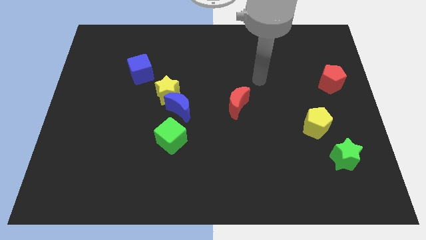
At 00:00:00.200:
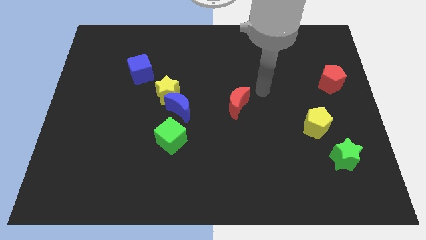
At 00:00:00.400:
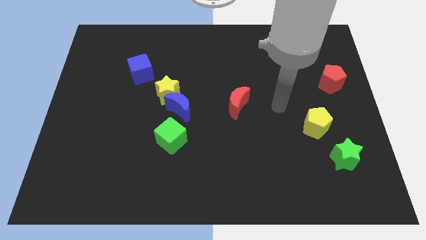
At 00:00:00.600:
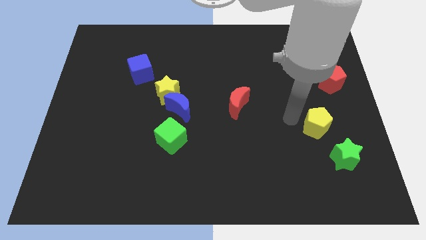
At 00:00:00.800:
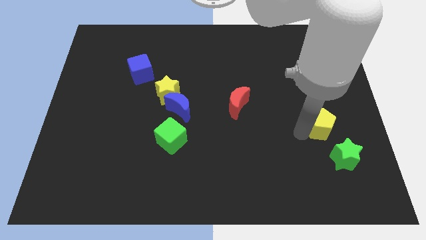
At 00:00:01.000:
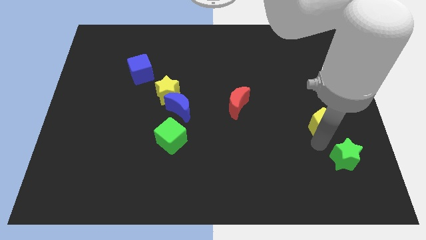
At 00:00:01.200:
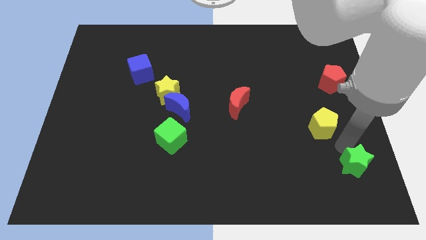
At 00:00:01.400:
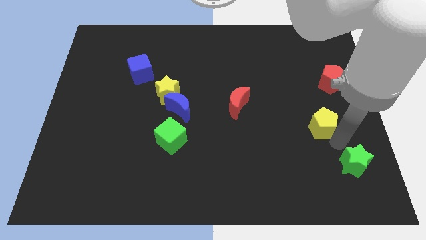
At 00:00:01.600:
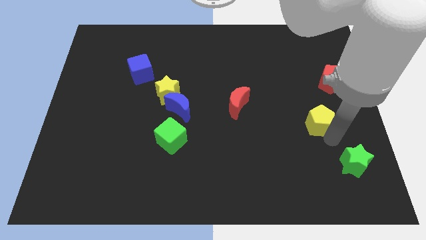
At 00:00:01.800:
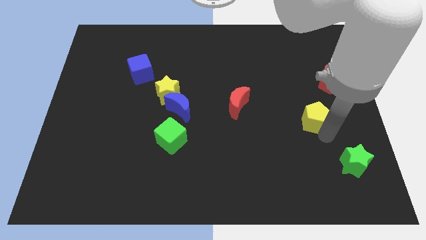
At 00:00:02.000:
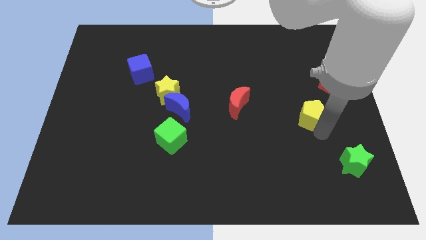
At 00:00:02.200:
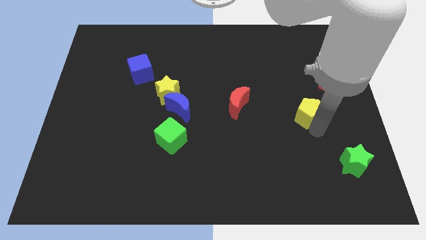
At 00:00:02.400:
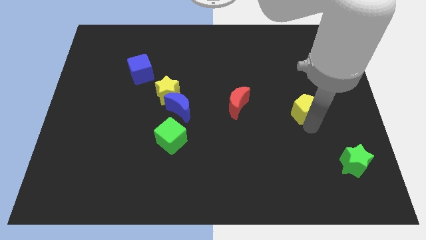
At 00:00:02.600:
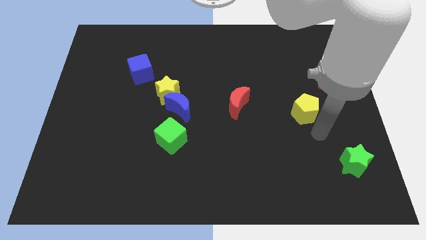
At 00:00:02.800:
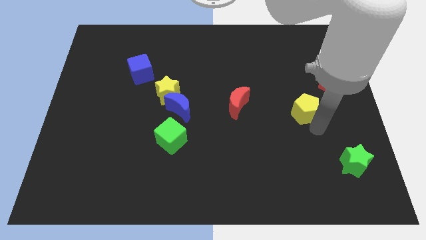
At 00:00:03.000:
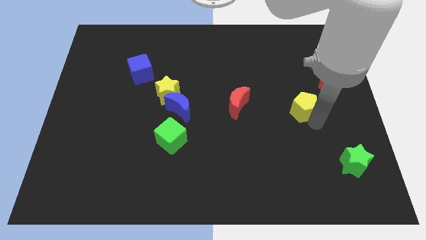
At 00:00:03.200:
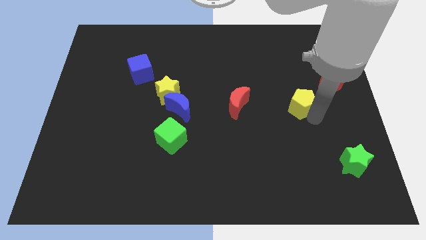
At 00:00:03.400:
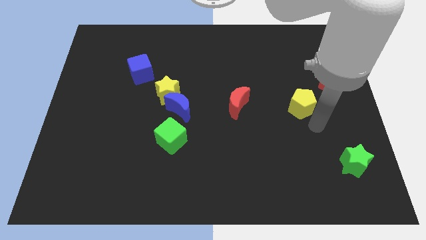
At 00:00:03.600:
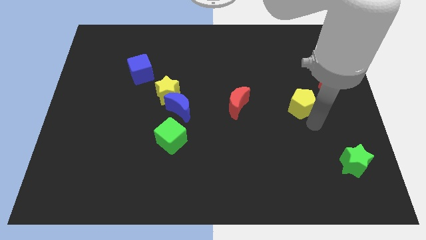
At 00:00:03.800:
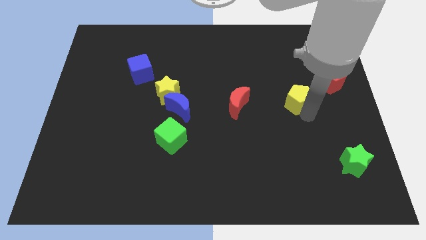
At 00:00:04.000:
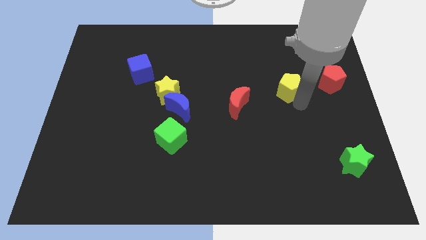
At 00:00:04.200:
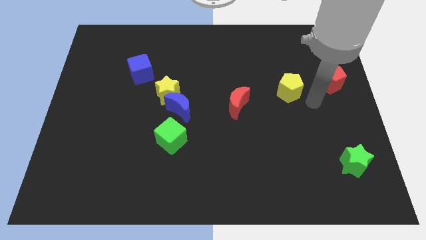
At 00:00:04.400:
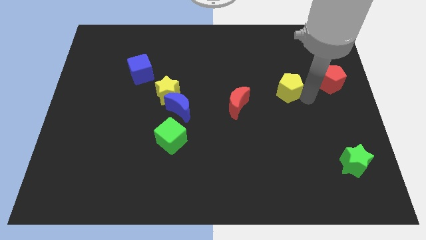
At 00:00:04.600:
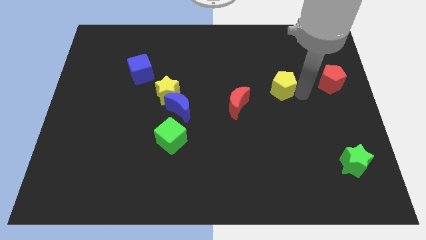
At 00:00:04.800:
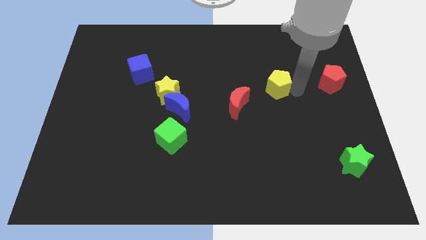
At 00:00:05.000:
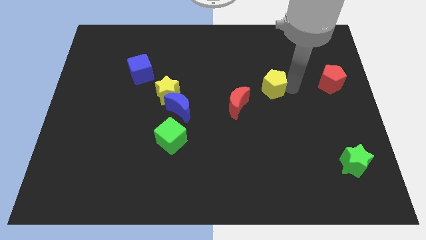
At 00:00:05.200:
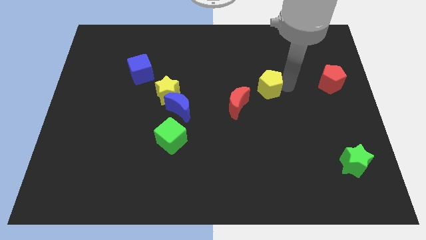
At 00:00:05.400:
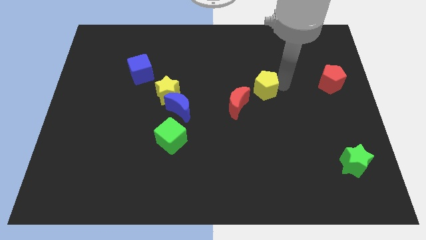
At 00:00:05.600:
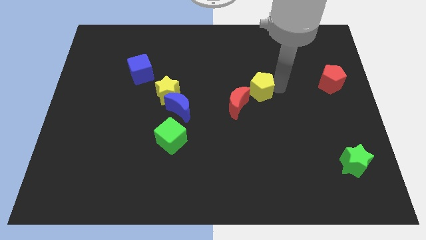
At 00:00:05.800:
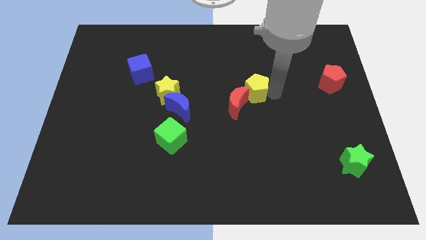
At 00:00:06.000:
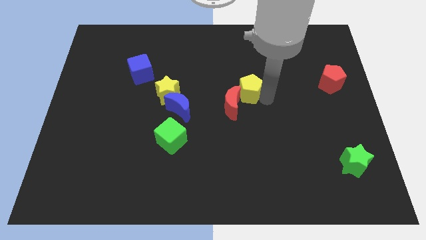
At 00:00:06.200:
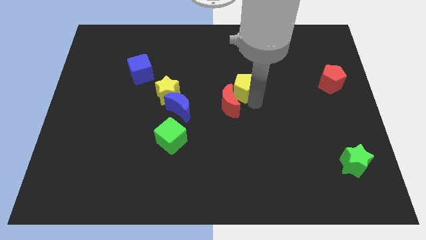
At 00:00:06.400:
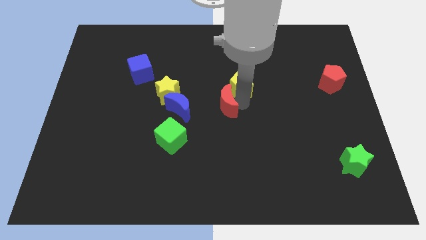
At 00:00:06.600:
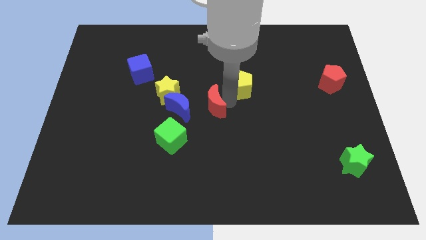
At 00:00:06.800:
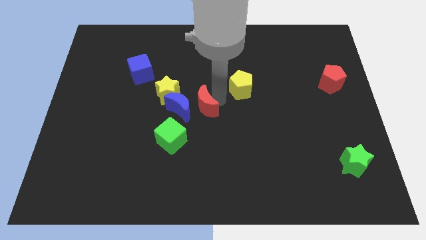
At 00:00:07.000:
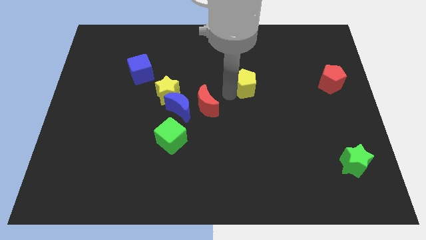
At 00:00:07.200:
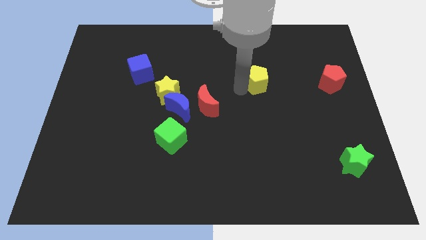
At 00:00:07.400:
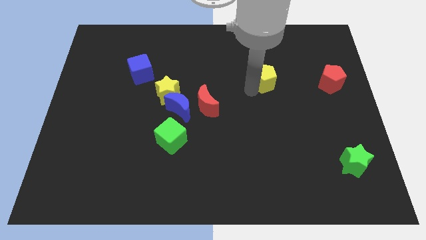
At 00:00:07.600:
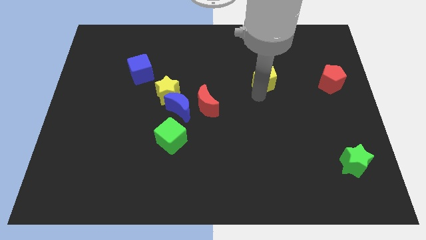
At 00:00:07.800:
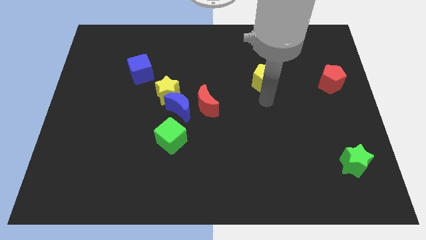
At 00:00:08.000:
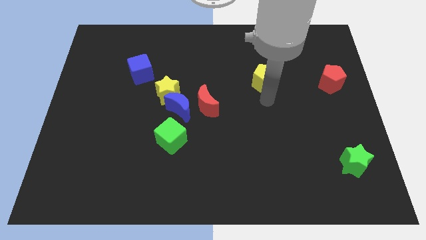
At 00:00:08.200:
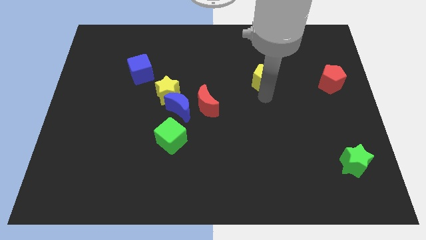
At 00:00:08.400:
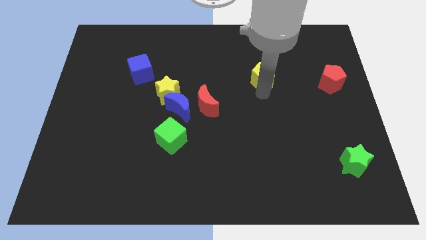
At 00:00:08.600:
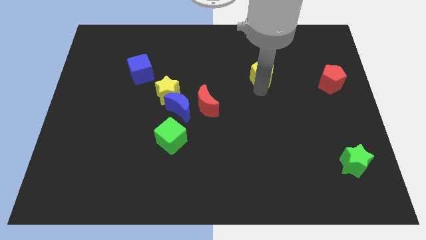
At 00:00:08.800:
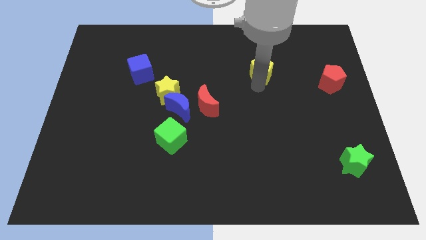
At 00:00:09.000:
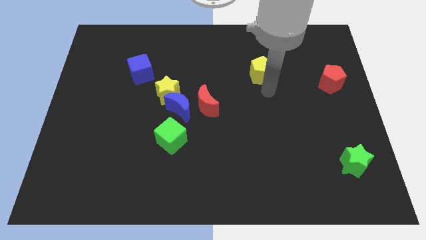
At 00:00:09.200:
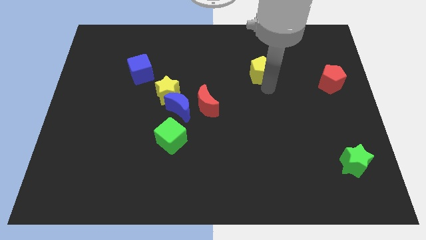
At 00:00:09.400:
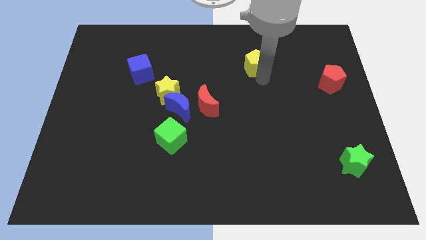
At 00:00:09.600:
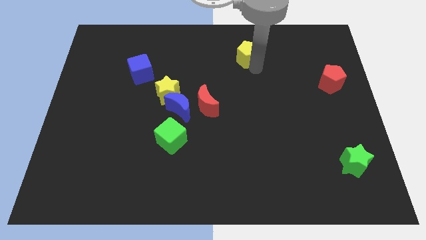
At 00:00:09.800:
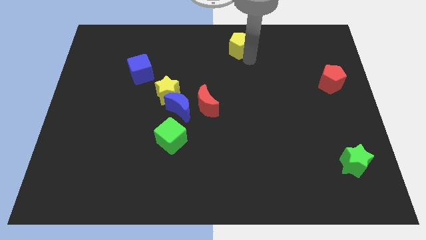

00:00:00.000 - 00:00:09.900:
move the yellow pentagon to the top
